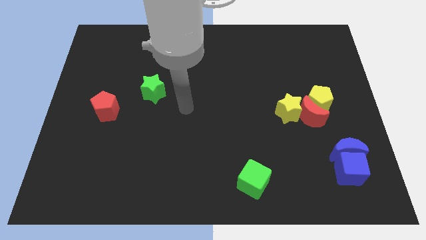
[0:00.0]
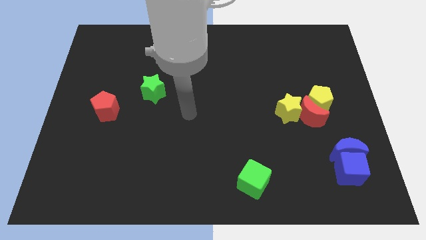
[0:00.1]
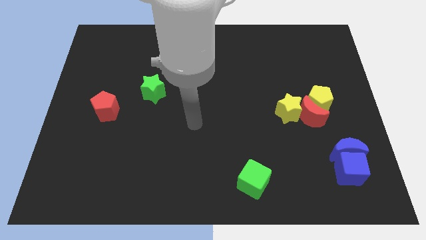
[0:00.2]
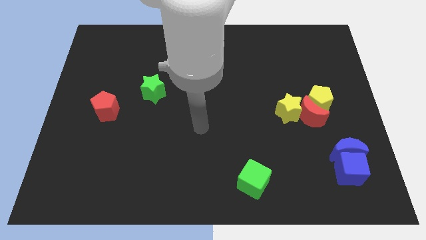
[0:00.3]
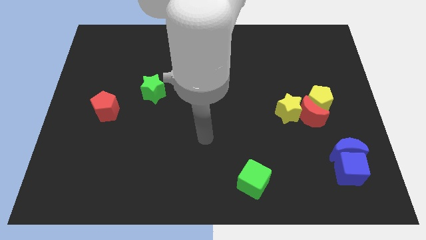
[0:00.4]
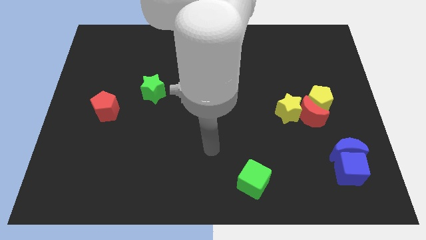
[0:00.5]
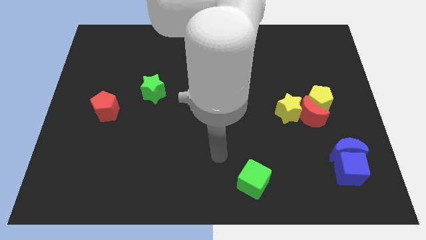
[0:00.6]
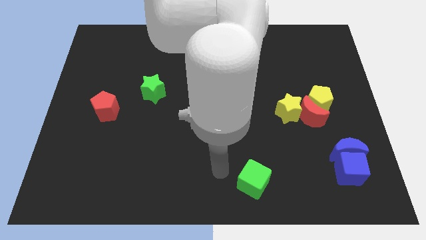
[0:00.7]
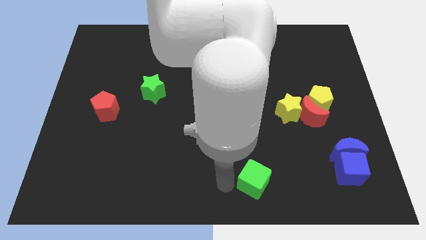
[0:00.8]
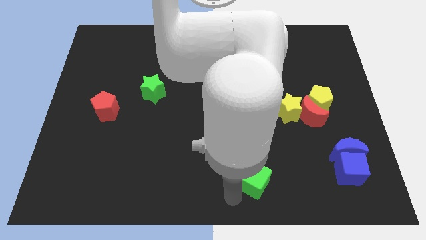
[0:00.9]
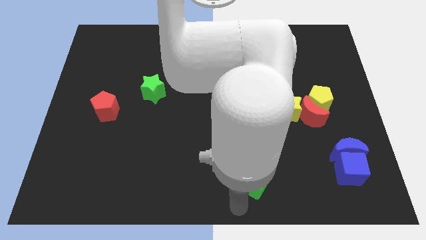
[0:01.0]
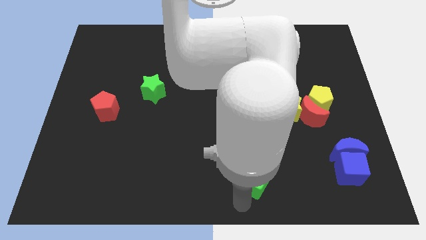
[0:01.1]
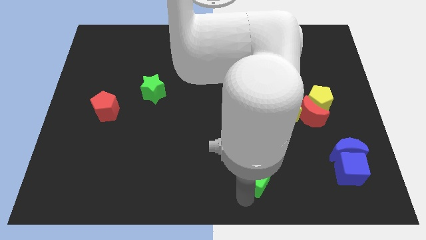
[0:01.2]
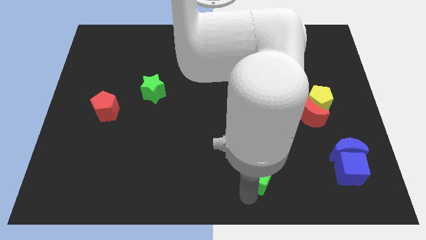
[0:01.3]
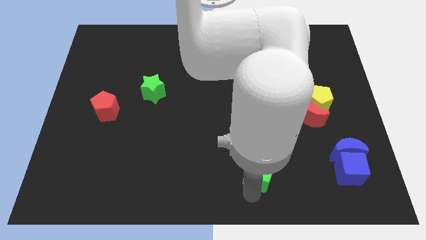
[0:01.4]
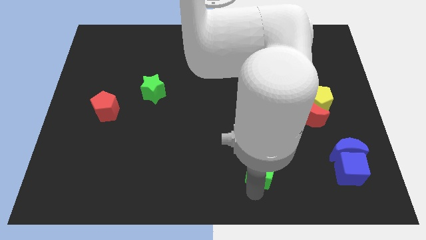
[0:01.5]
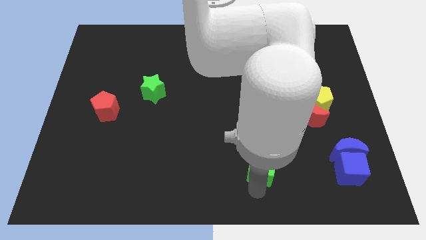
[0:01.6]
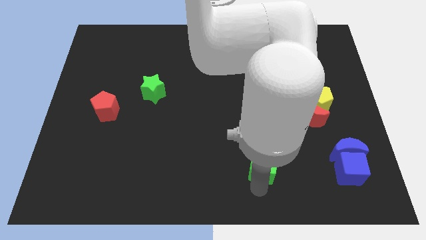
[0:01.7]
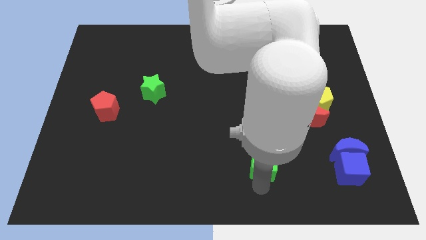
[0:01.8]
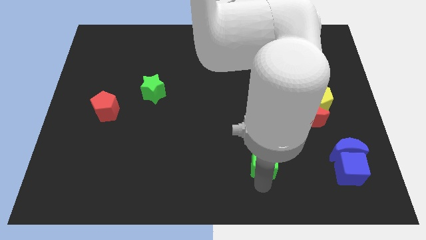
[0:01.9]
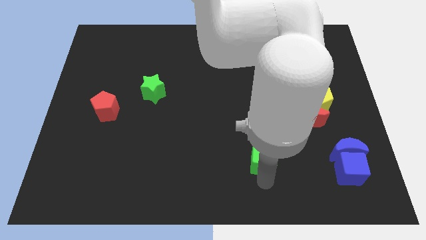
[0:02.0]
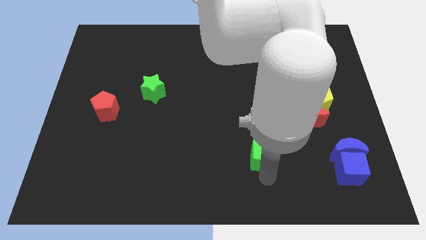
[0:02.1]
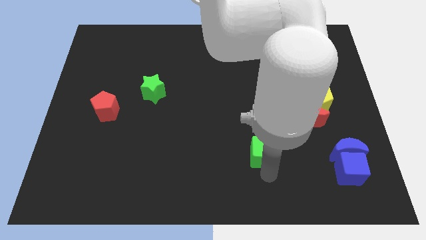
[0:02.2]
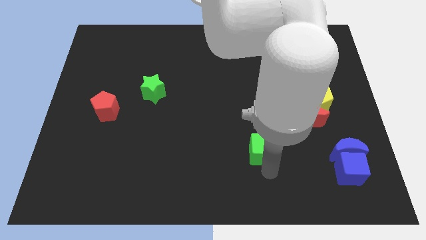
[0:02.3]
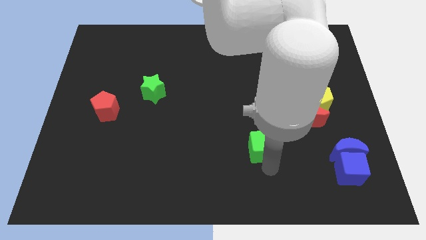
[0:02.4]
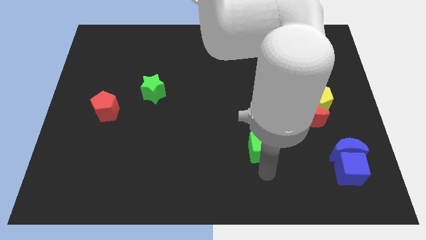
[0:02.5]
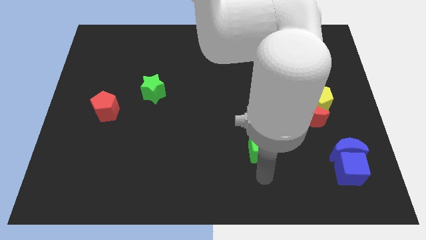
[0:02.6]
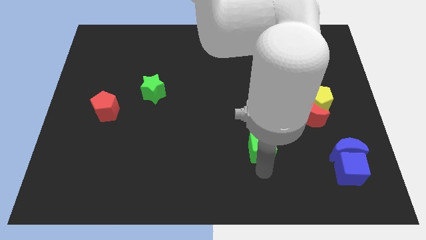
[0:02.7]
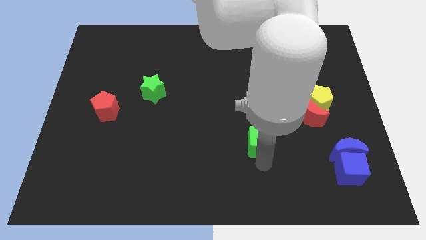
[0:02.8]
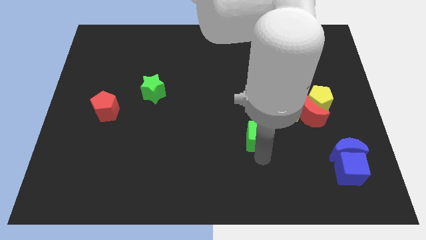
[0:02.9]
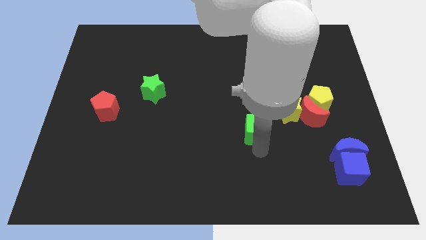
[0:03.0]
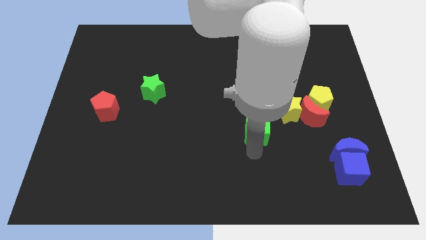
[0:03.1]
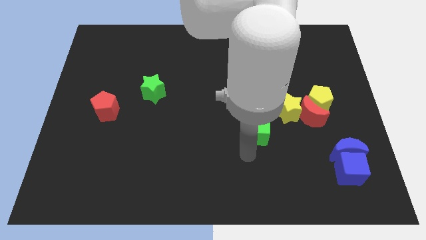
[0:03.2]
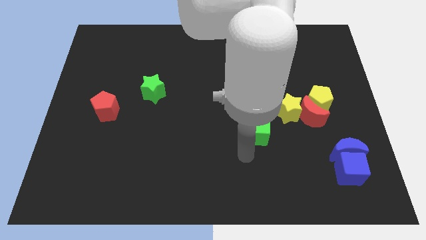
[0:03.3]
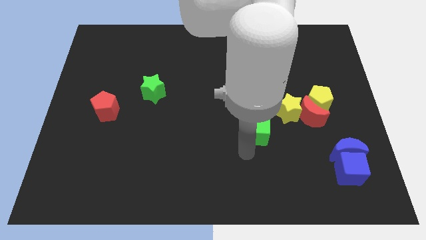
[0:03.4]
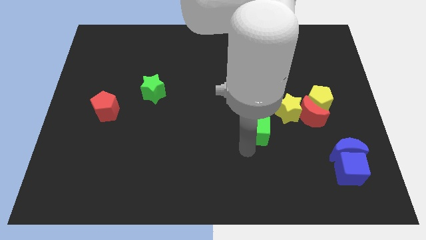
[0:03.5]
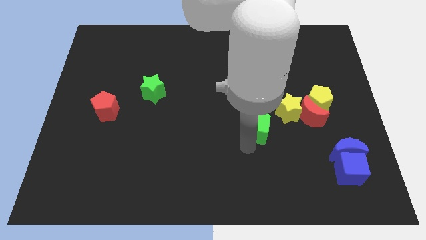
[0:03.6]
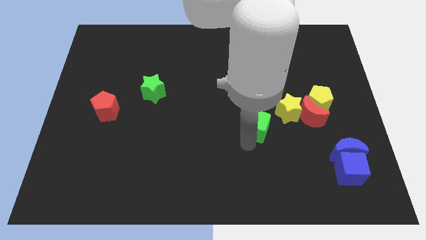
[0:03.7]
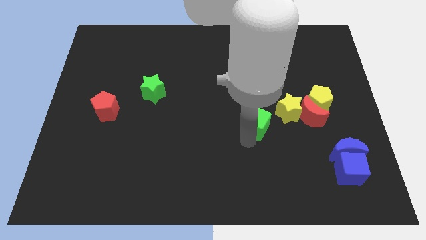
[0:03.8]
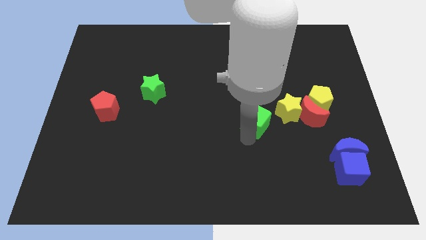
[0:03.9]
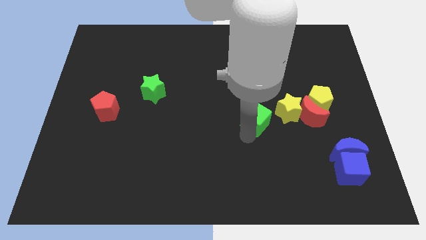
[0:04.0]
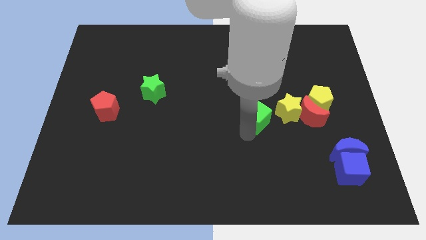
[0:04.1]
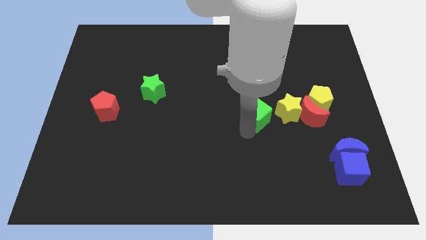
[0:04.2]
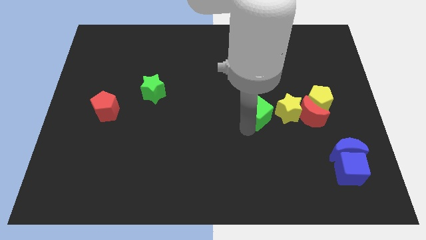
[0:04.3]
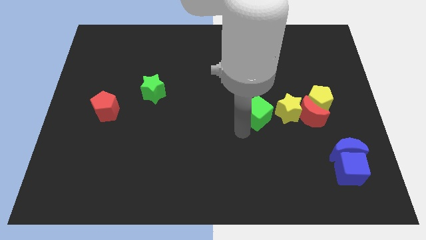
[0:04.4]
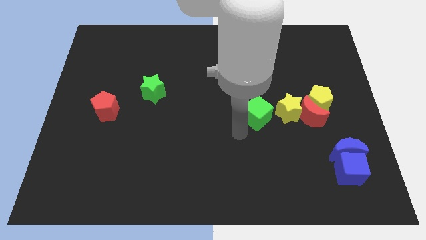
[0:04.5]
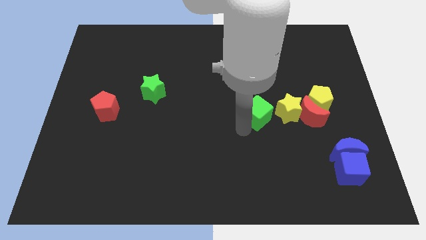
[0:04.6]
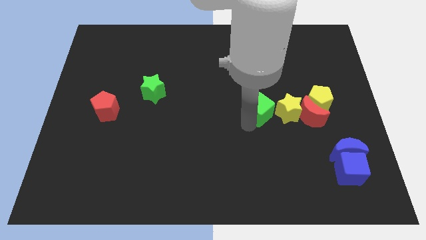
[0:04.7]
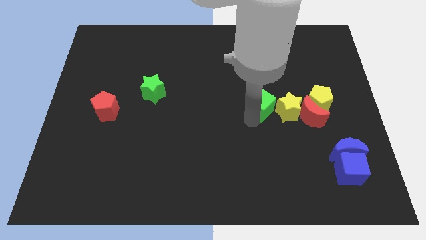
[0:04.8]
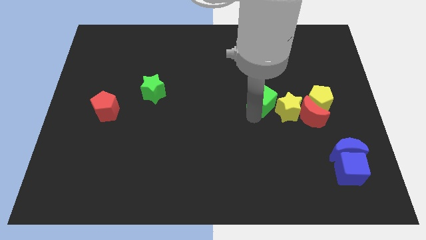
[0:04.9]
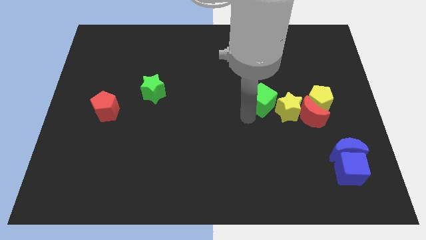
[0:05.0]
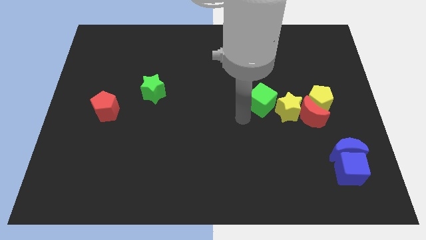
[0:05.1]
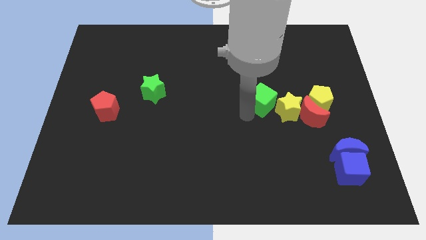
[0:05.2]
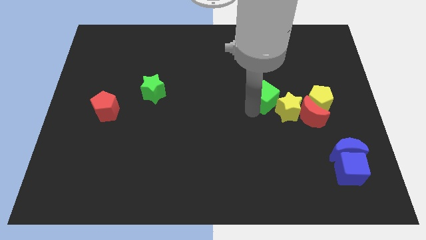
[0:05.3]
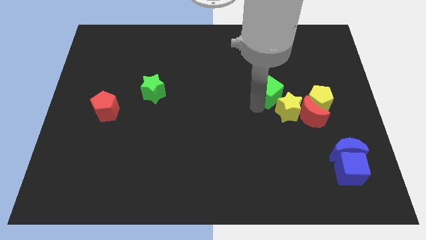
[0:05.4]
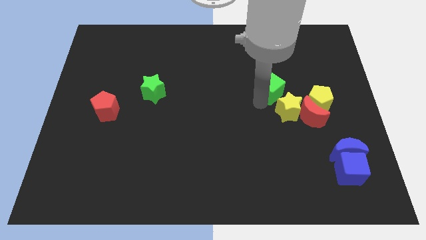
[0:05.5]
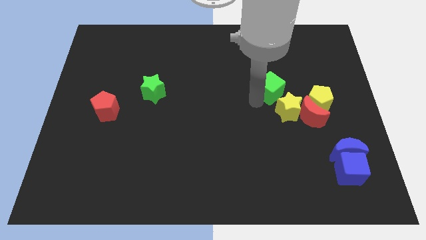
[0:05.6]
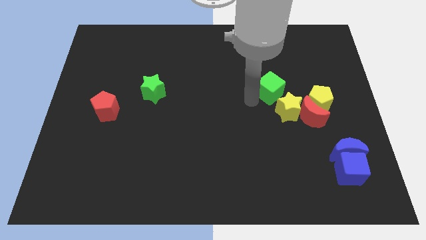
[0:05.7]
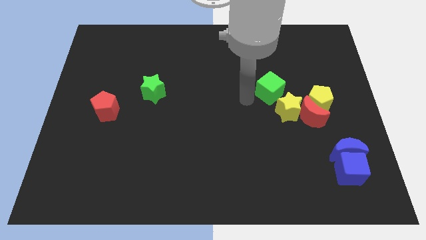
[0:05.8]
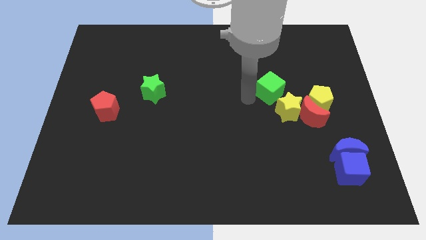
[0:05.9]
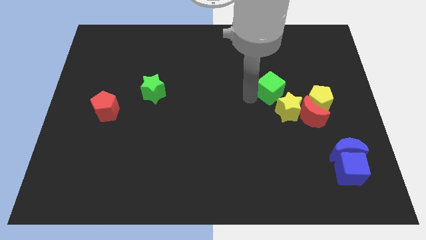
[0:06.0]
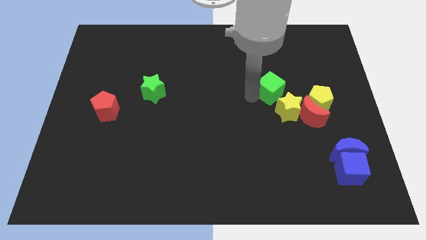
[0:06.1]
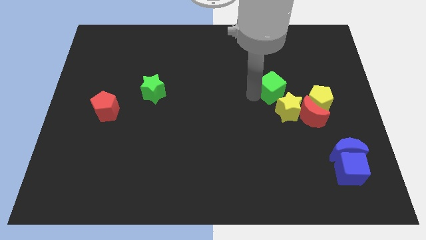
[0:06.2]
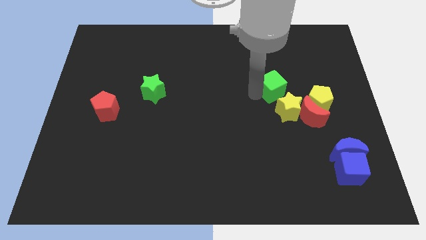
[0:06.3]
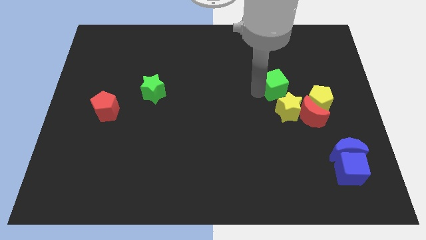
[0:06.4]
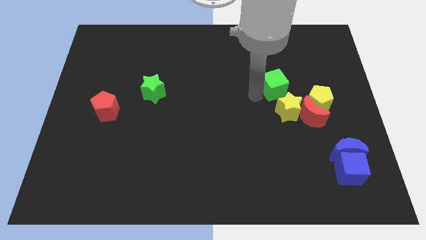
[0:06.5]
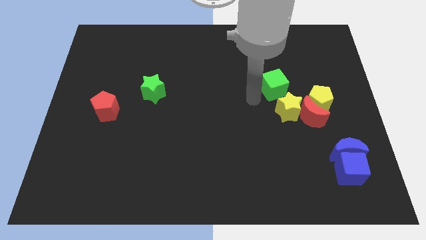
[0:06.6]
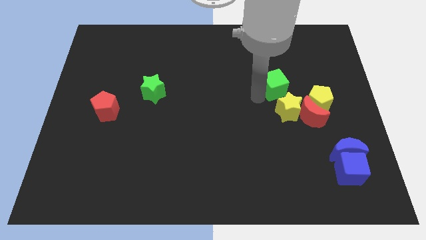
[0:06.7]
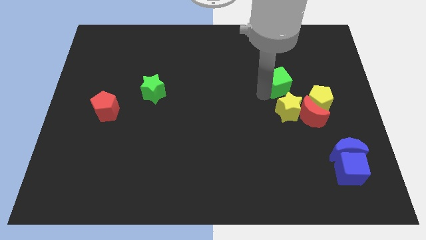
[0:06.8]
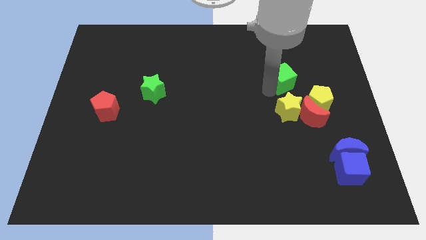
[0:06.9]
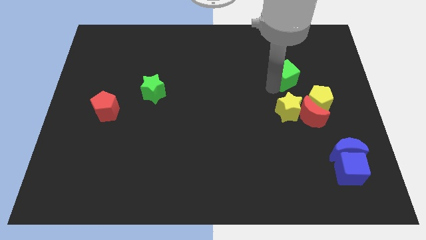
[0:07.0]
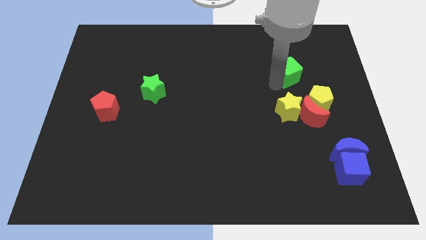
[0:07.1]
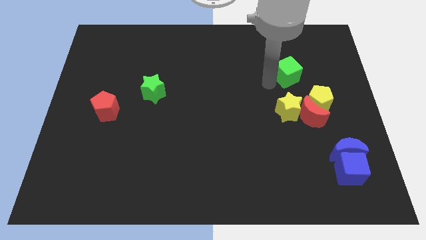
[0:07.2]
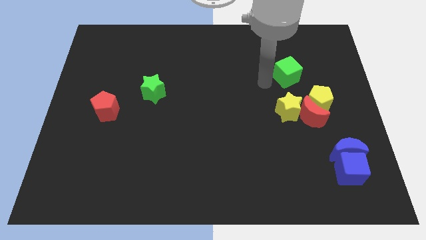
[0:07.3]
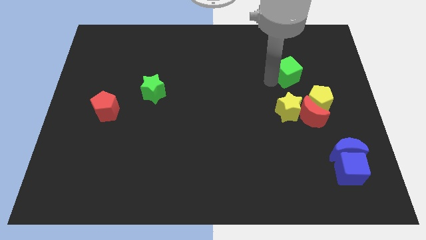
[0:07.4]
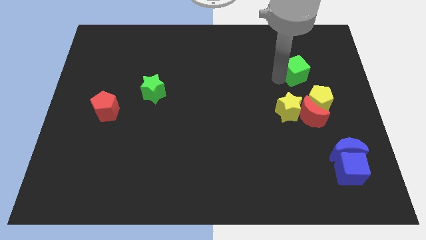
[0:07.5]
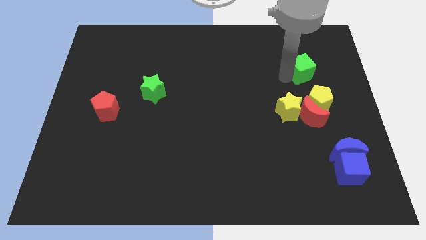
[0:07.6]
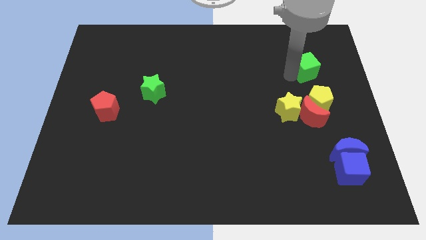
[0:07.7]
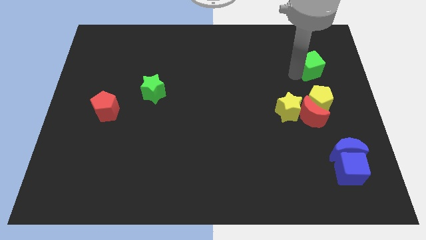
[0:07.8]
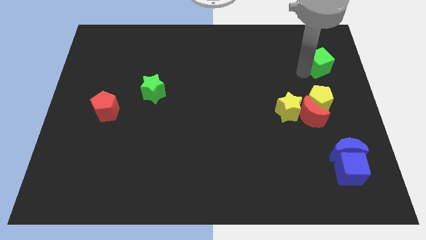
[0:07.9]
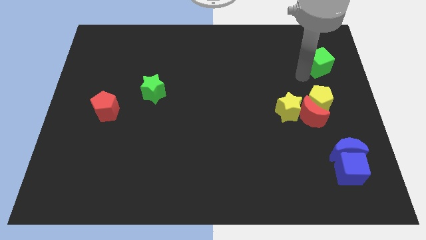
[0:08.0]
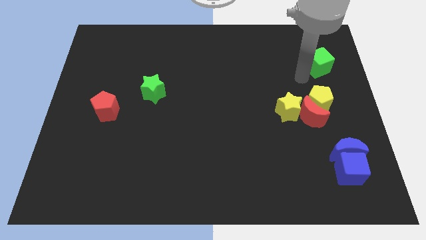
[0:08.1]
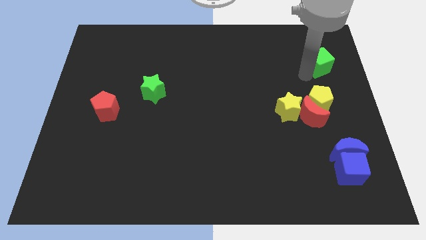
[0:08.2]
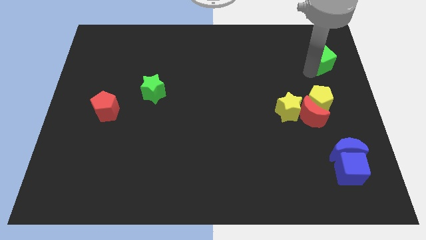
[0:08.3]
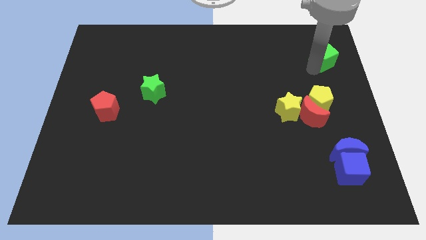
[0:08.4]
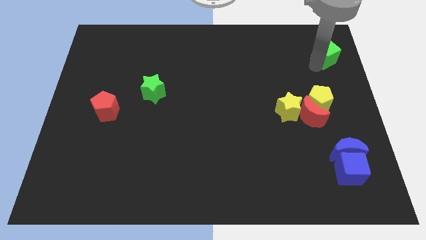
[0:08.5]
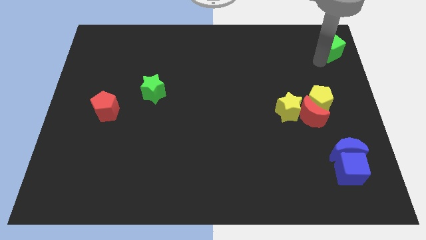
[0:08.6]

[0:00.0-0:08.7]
put the green cube to the top right corner
